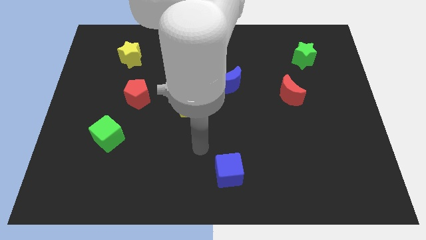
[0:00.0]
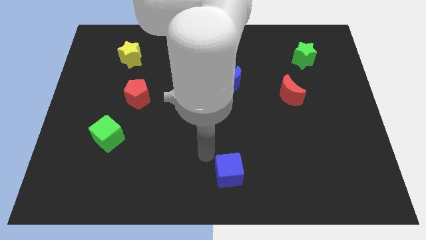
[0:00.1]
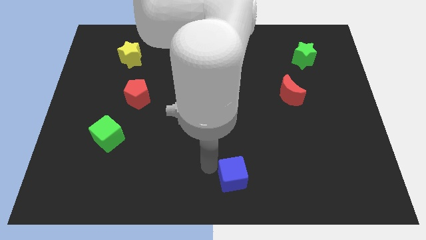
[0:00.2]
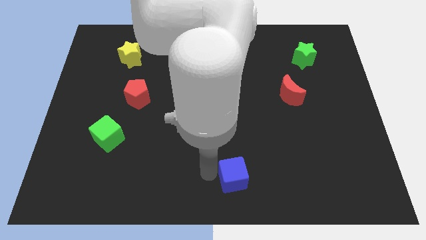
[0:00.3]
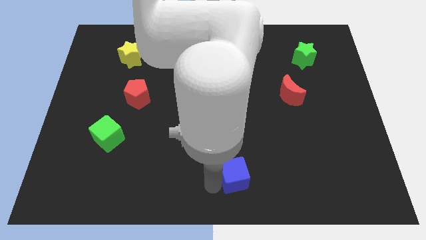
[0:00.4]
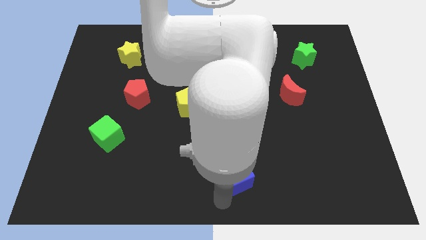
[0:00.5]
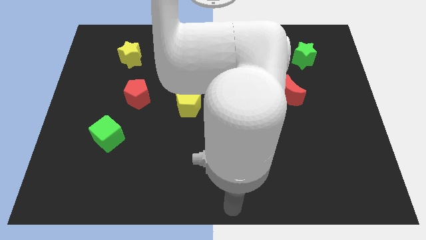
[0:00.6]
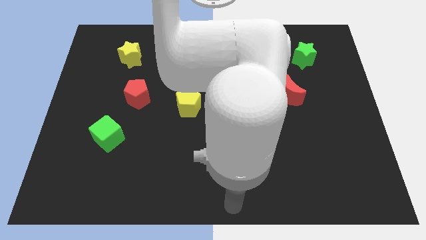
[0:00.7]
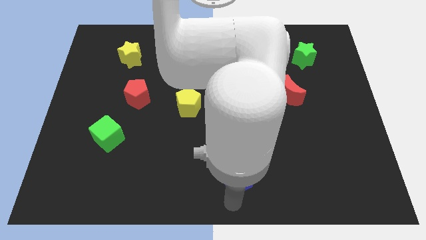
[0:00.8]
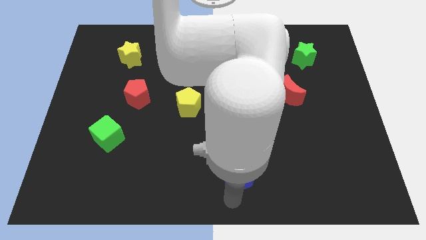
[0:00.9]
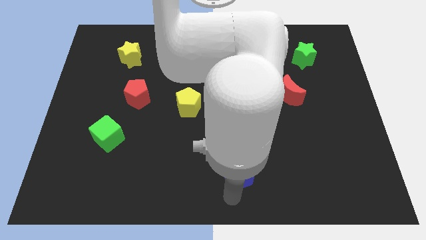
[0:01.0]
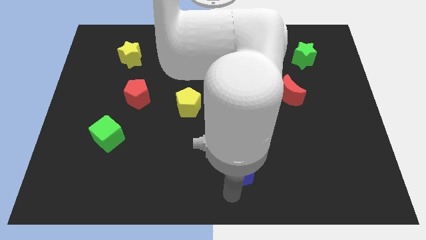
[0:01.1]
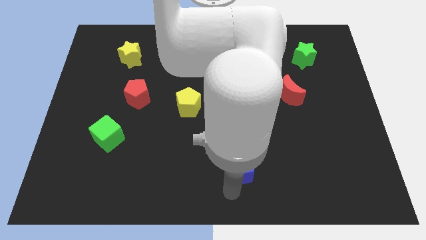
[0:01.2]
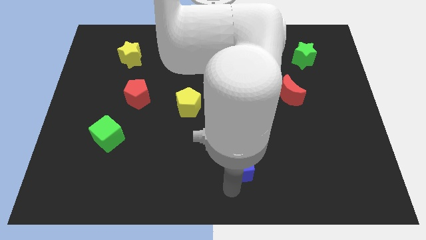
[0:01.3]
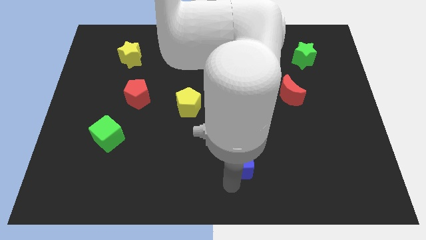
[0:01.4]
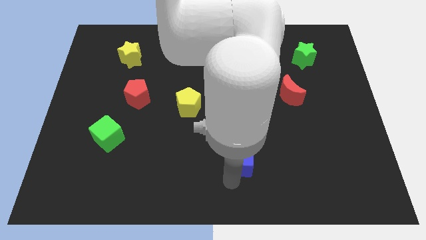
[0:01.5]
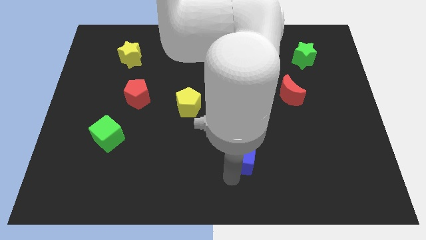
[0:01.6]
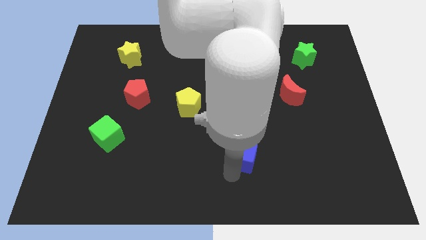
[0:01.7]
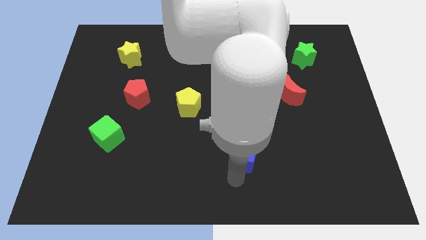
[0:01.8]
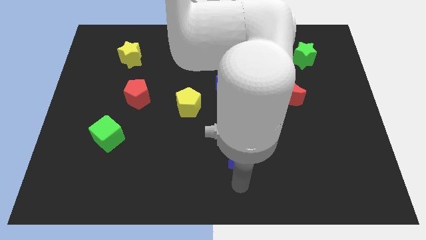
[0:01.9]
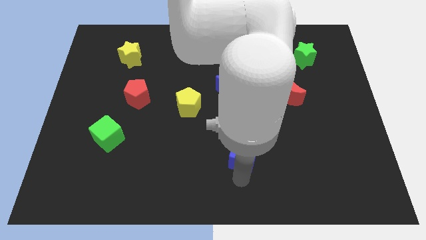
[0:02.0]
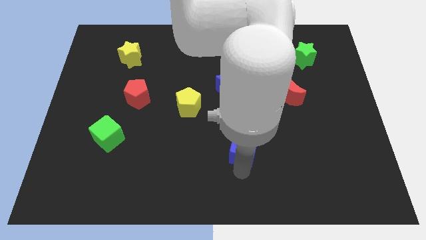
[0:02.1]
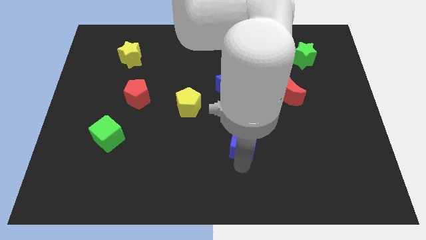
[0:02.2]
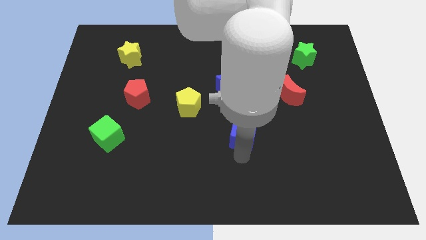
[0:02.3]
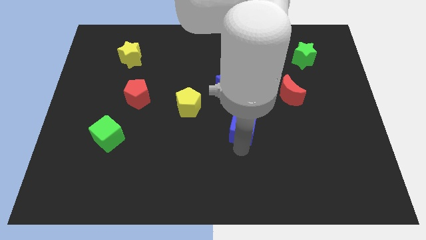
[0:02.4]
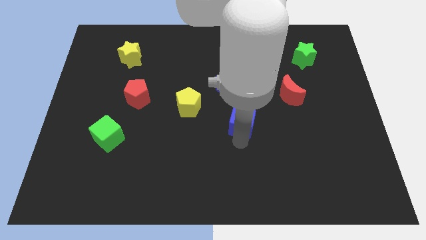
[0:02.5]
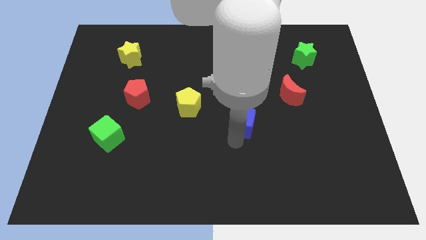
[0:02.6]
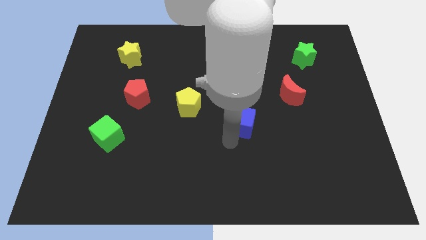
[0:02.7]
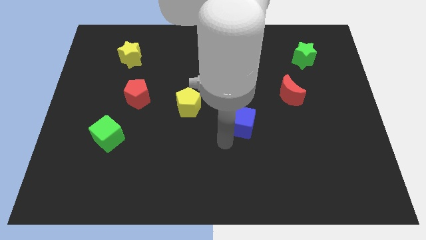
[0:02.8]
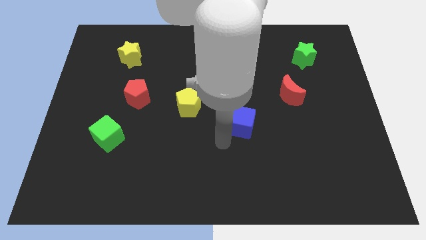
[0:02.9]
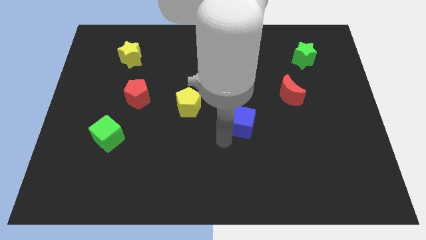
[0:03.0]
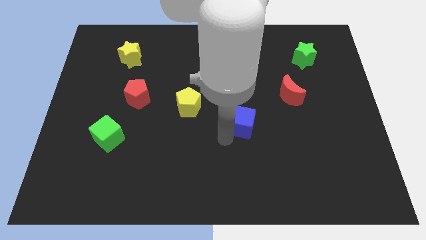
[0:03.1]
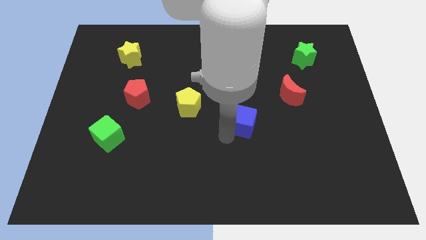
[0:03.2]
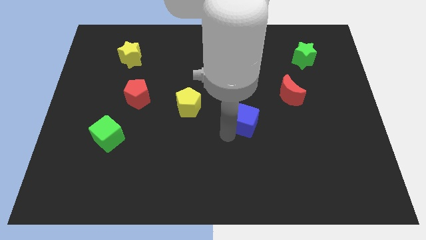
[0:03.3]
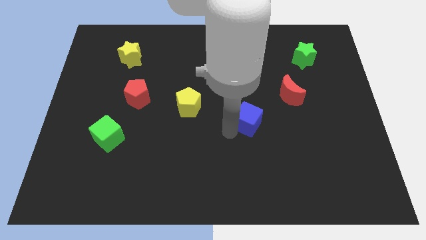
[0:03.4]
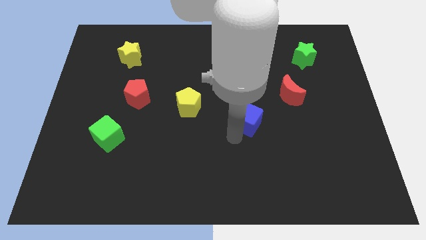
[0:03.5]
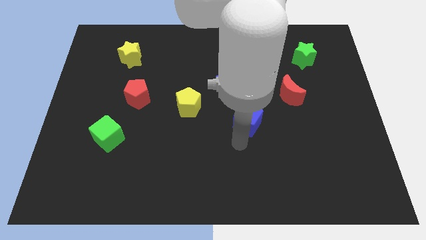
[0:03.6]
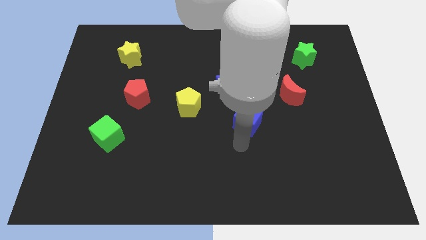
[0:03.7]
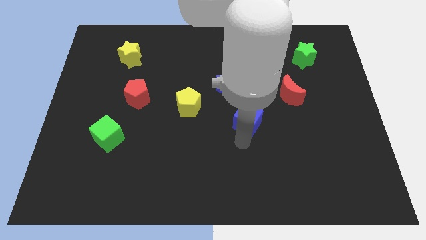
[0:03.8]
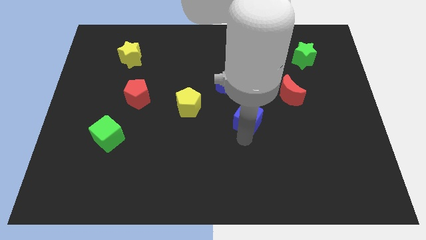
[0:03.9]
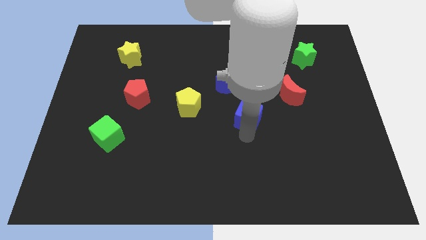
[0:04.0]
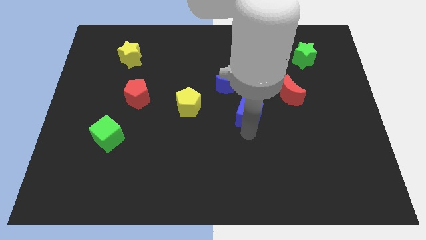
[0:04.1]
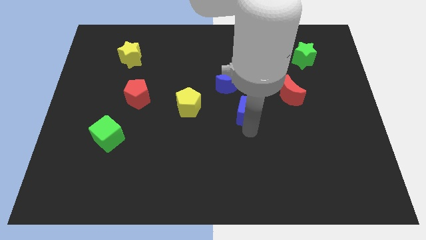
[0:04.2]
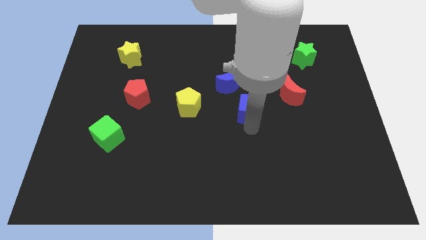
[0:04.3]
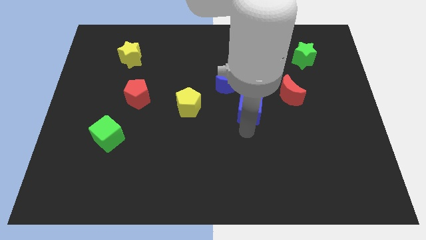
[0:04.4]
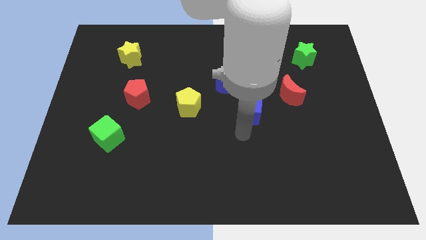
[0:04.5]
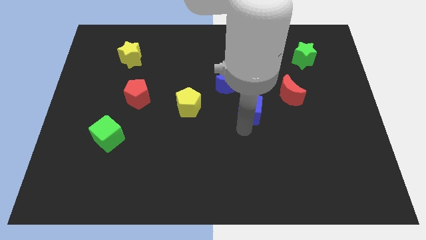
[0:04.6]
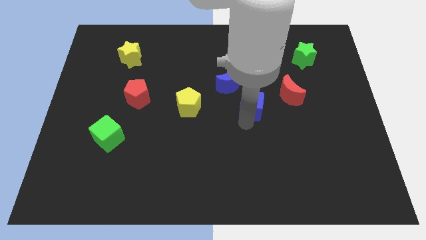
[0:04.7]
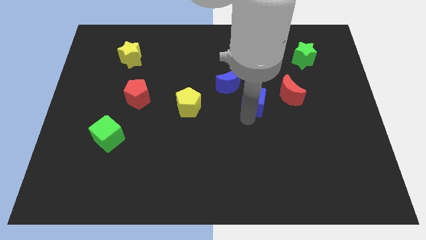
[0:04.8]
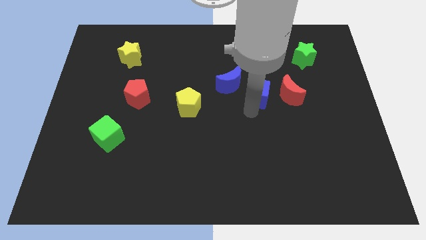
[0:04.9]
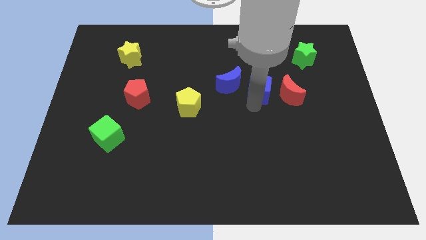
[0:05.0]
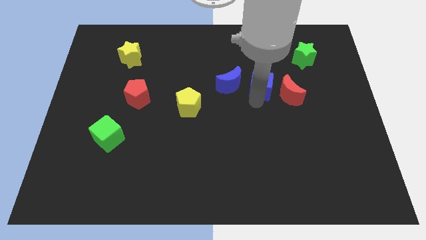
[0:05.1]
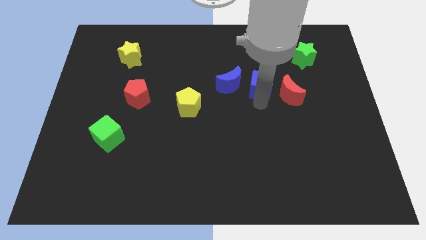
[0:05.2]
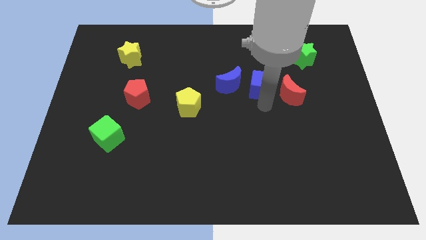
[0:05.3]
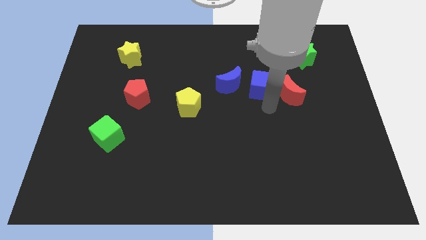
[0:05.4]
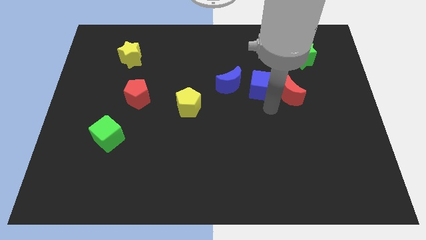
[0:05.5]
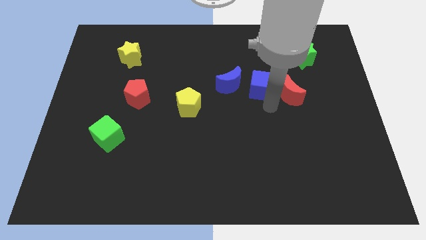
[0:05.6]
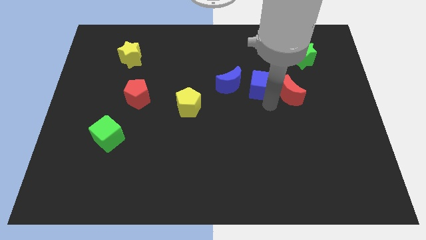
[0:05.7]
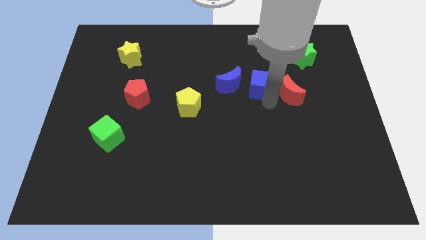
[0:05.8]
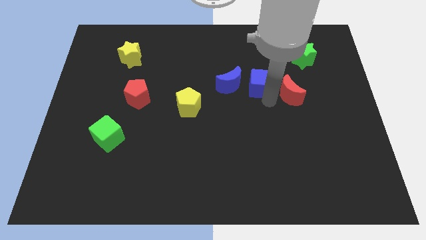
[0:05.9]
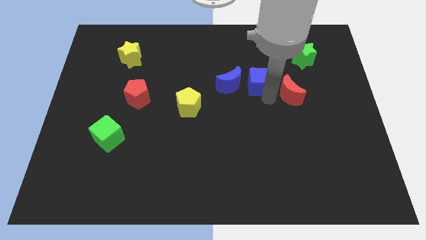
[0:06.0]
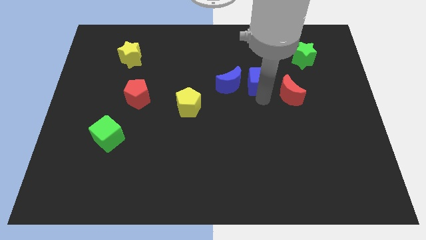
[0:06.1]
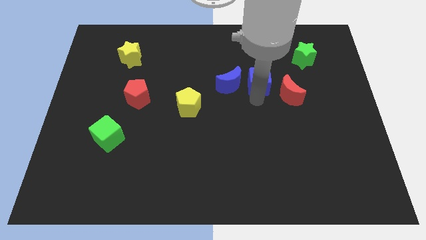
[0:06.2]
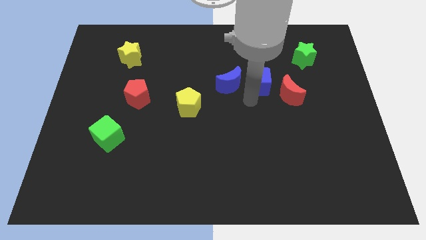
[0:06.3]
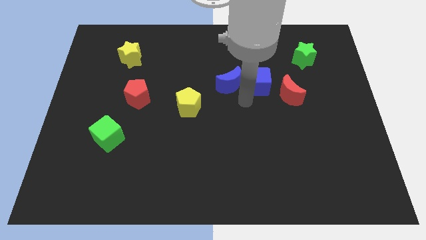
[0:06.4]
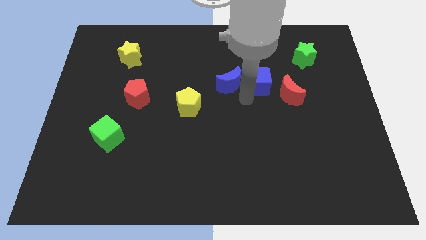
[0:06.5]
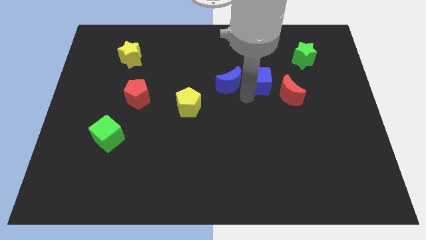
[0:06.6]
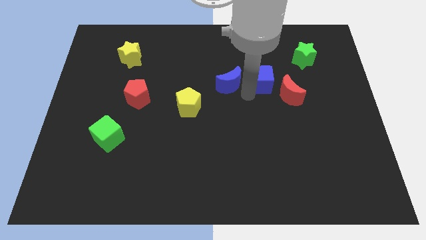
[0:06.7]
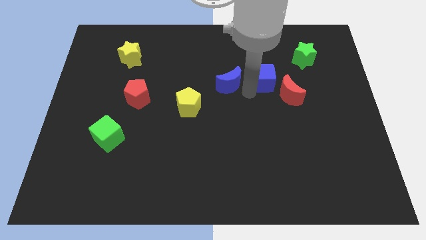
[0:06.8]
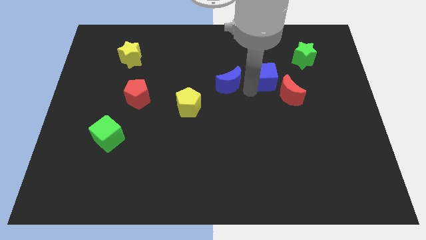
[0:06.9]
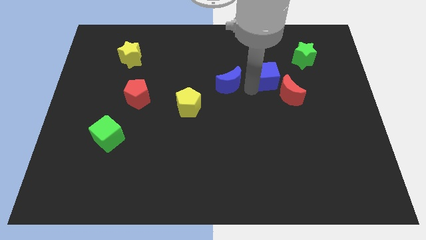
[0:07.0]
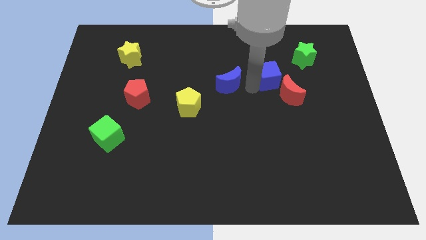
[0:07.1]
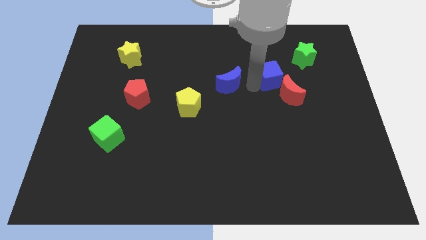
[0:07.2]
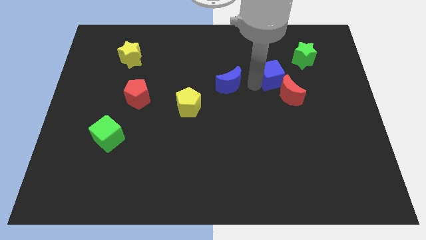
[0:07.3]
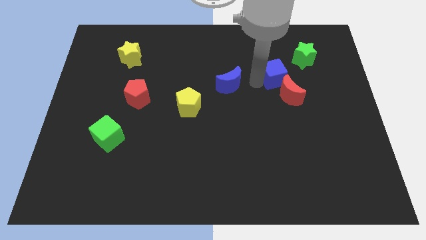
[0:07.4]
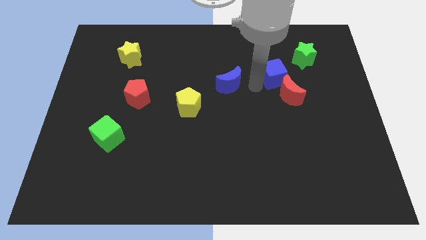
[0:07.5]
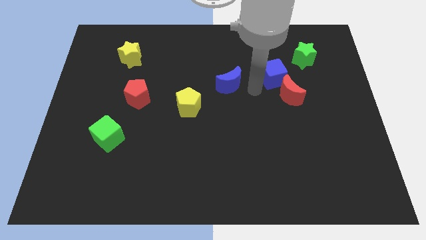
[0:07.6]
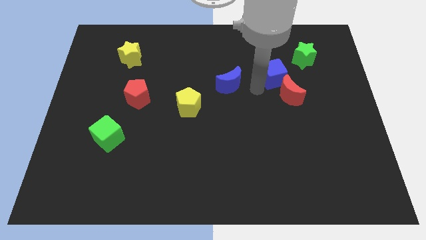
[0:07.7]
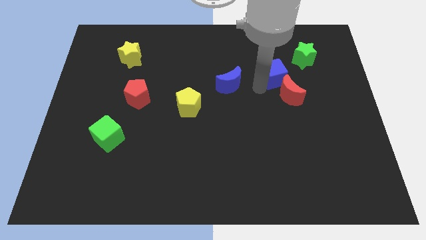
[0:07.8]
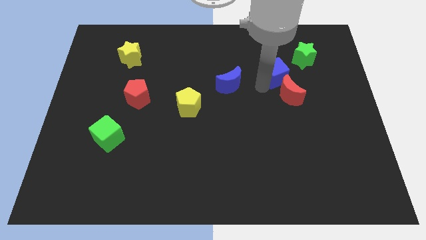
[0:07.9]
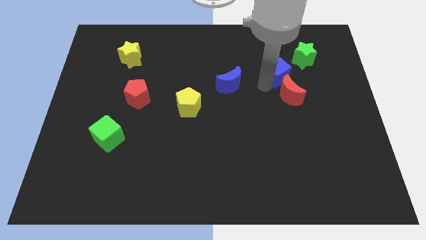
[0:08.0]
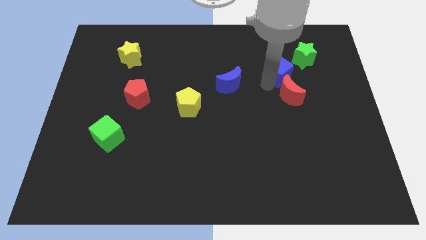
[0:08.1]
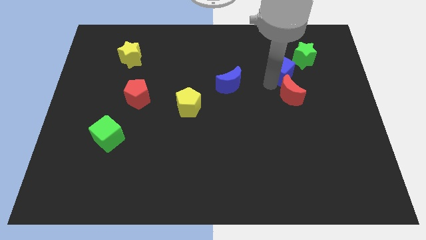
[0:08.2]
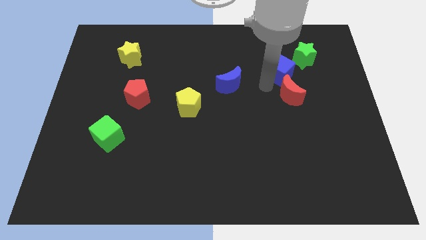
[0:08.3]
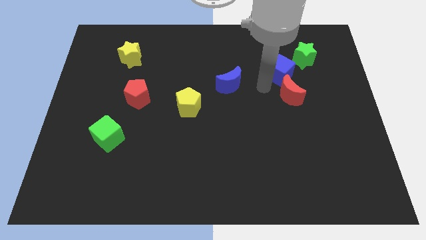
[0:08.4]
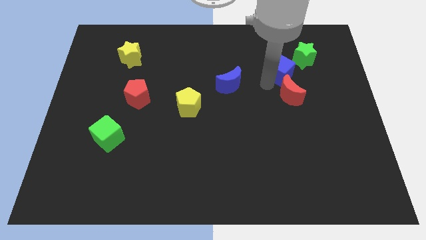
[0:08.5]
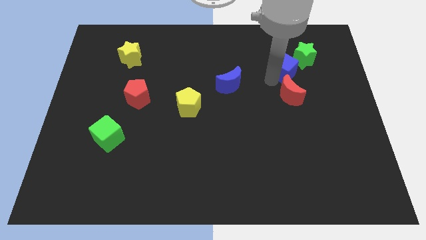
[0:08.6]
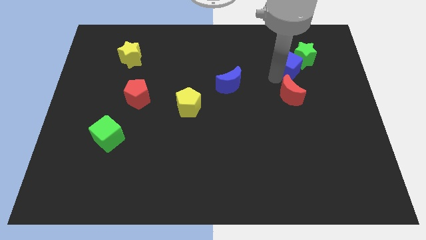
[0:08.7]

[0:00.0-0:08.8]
slide the blue cube next to the green star
